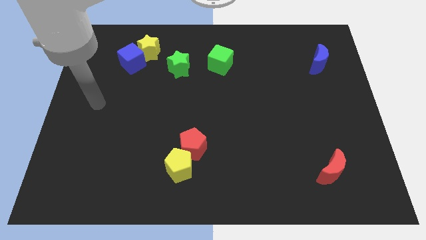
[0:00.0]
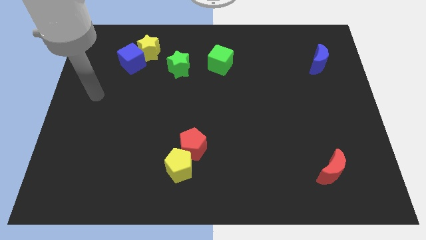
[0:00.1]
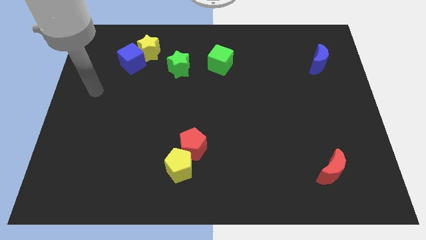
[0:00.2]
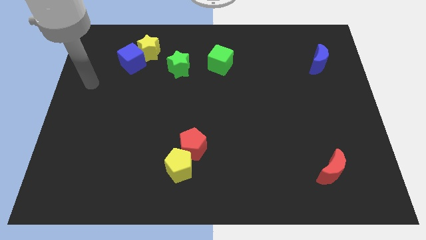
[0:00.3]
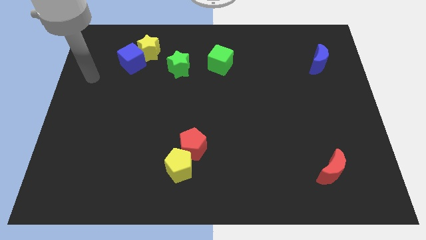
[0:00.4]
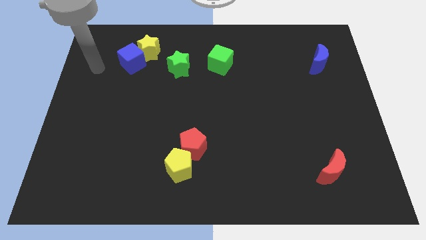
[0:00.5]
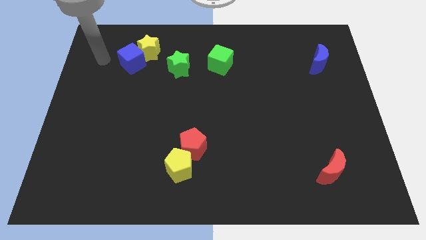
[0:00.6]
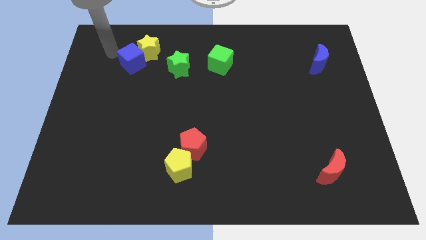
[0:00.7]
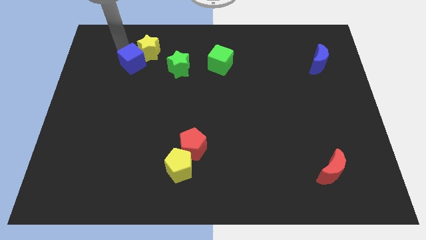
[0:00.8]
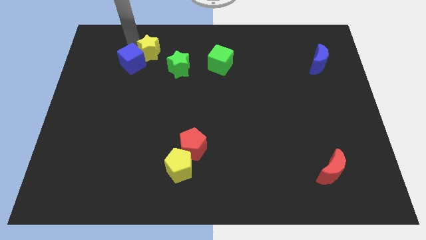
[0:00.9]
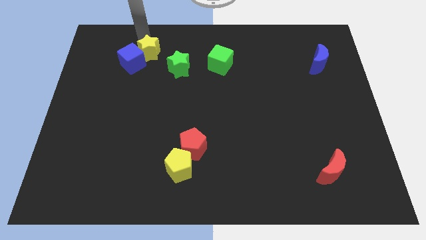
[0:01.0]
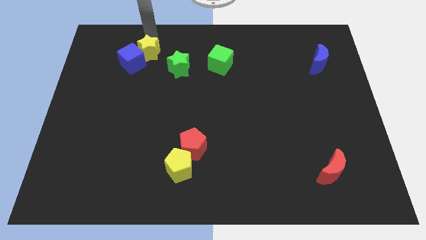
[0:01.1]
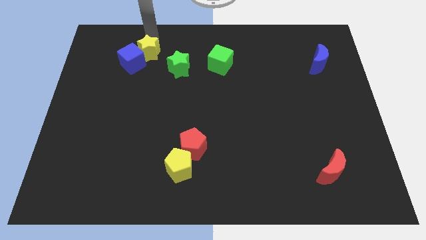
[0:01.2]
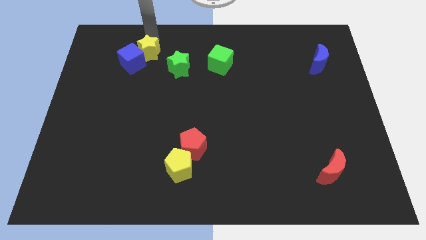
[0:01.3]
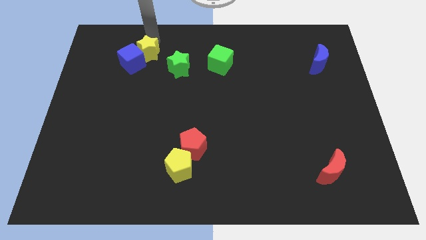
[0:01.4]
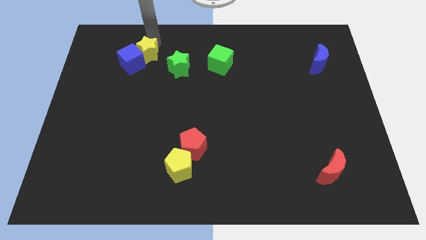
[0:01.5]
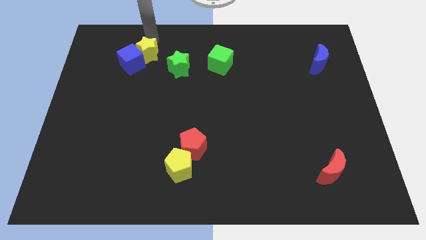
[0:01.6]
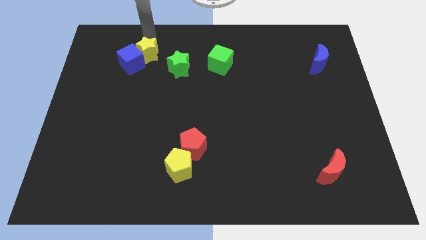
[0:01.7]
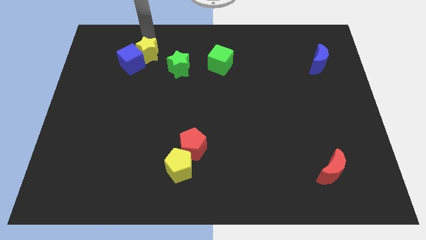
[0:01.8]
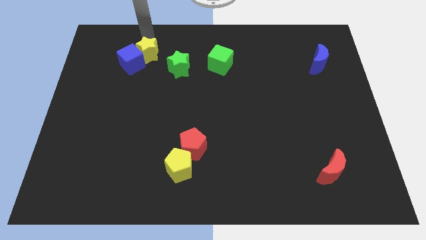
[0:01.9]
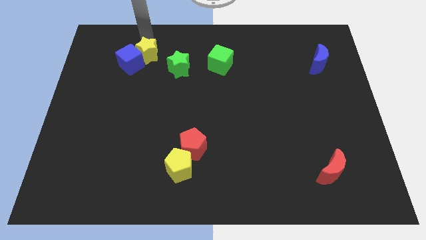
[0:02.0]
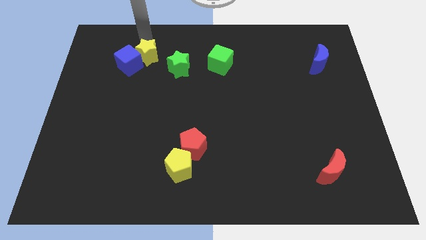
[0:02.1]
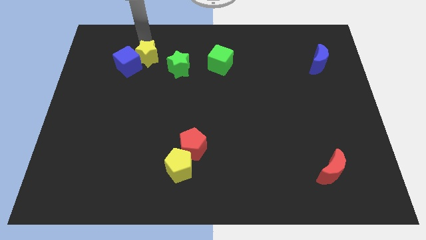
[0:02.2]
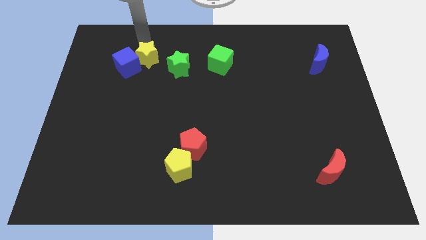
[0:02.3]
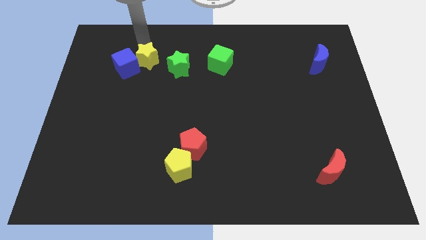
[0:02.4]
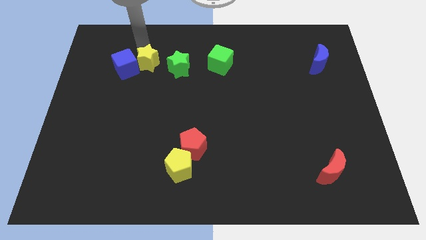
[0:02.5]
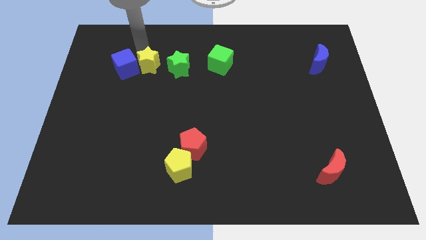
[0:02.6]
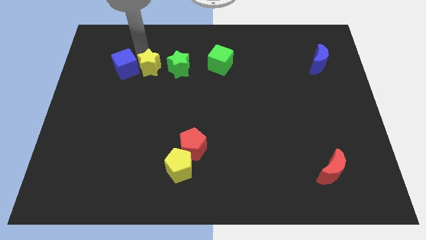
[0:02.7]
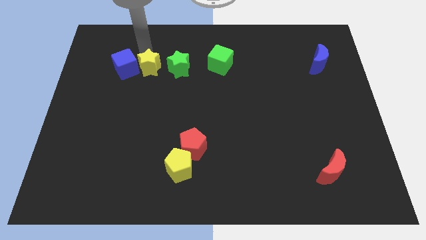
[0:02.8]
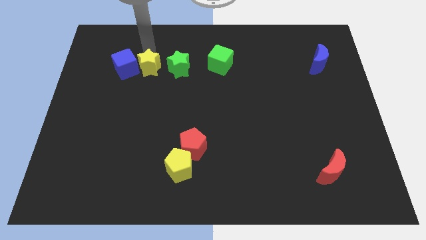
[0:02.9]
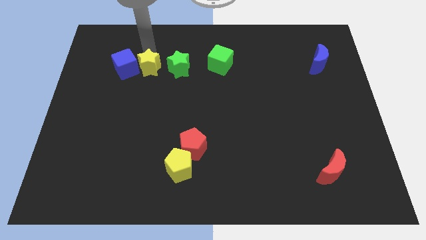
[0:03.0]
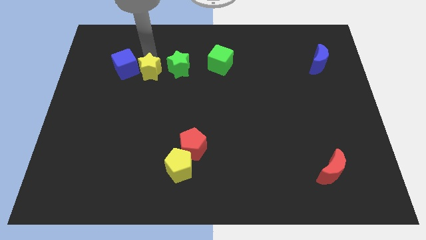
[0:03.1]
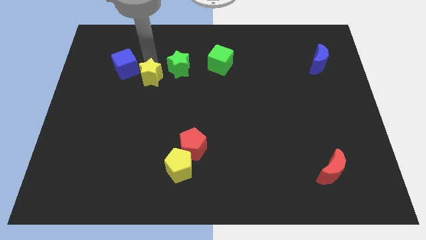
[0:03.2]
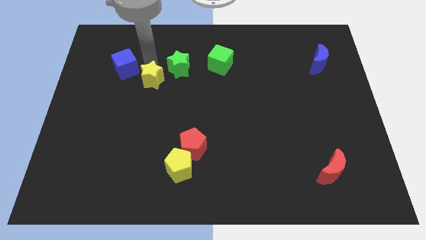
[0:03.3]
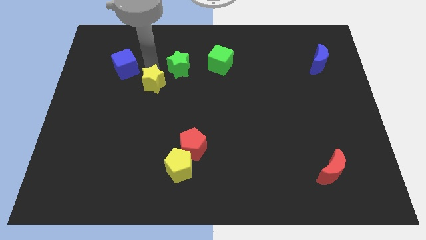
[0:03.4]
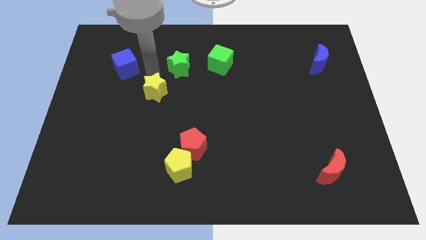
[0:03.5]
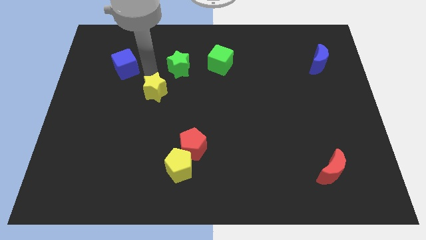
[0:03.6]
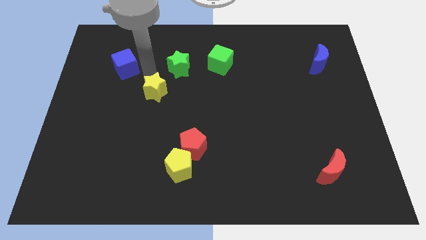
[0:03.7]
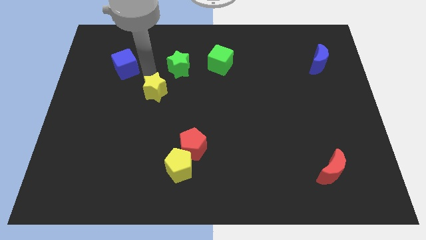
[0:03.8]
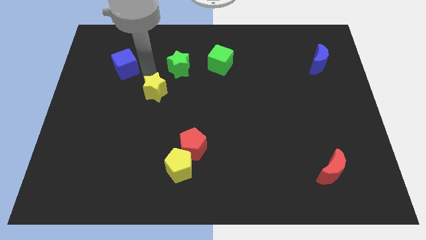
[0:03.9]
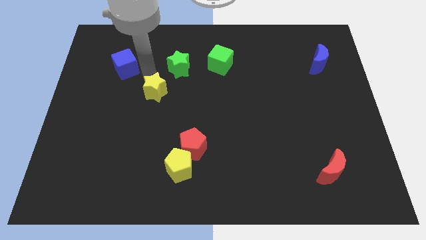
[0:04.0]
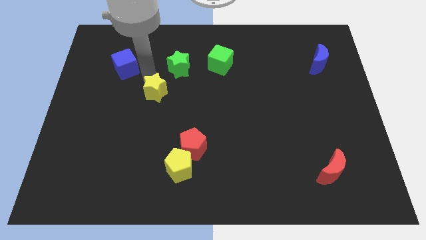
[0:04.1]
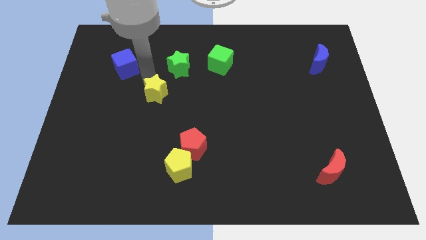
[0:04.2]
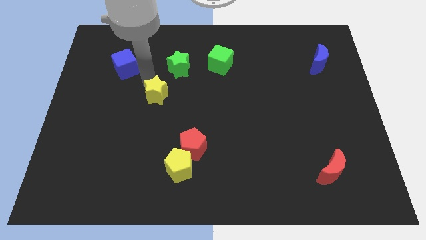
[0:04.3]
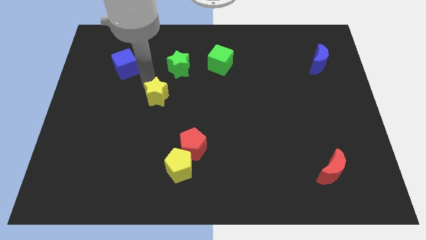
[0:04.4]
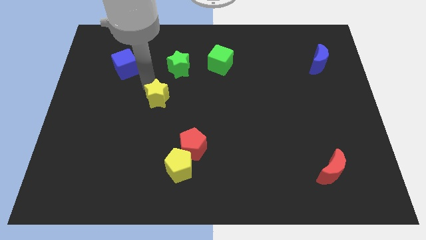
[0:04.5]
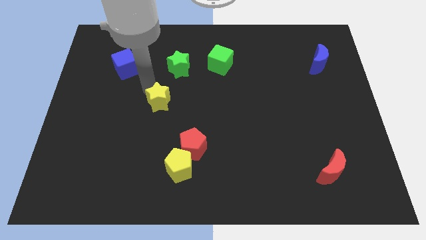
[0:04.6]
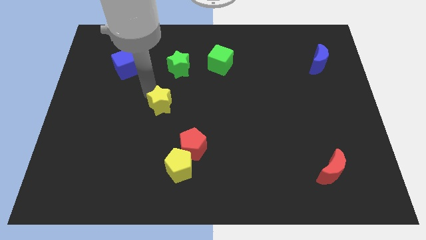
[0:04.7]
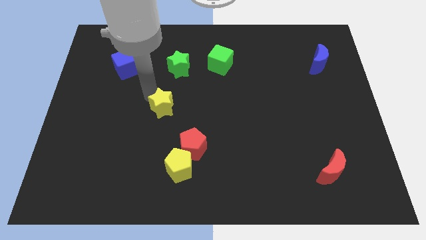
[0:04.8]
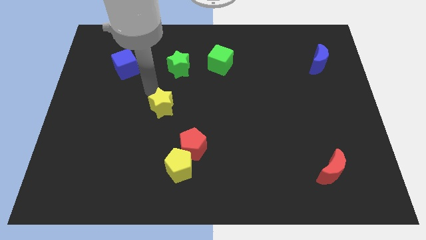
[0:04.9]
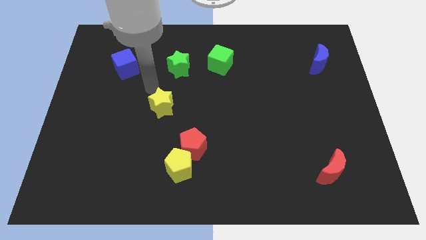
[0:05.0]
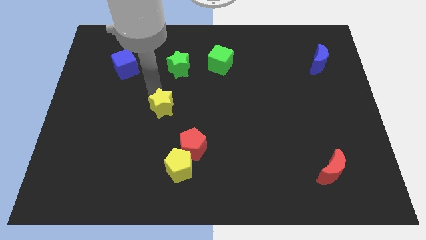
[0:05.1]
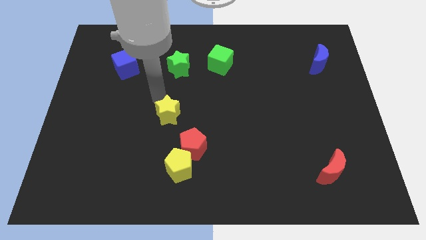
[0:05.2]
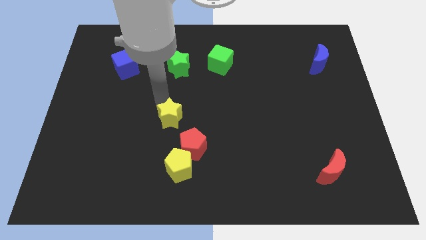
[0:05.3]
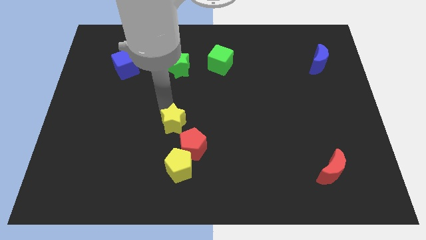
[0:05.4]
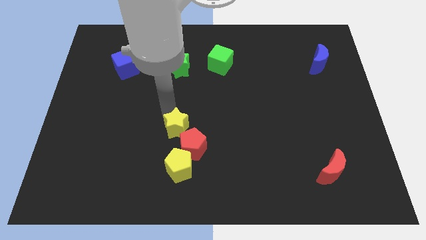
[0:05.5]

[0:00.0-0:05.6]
slide the yellow star close to the red pentagon
